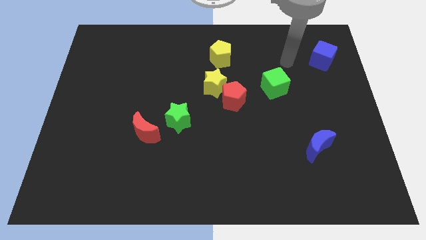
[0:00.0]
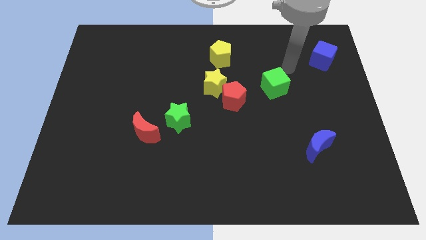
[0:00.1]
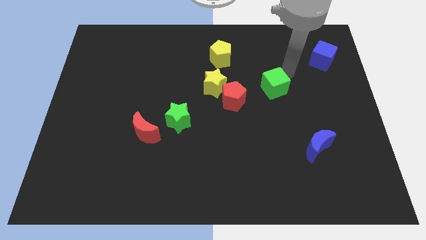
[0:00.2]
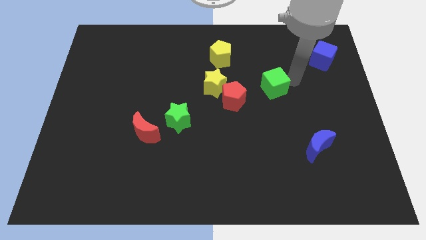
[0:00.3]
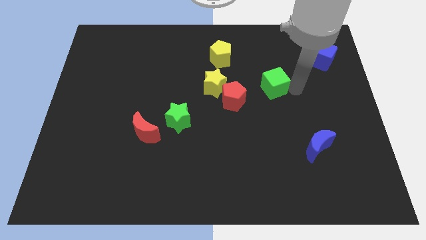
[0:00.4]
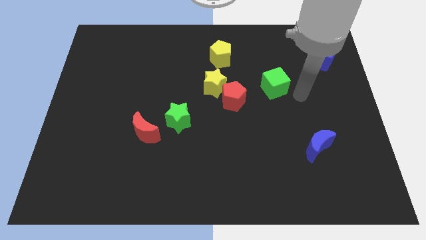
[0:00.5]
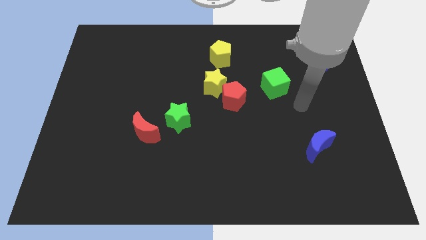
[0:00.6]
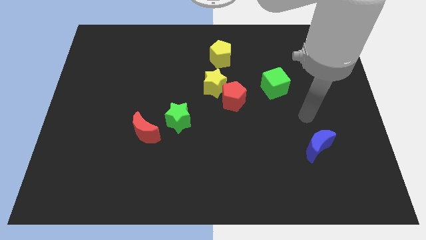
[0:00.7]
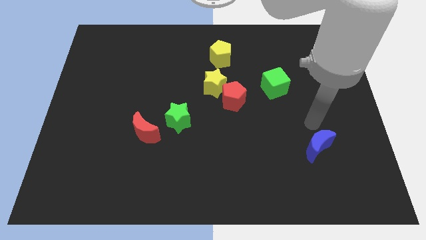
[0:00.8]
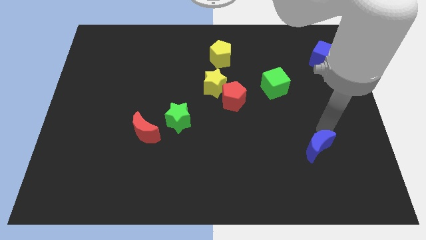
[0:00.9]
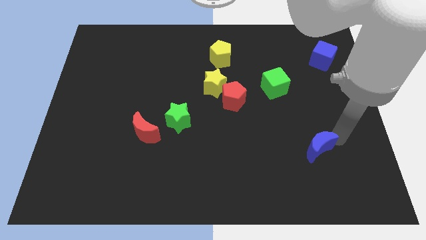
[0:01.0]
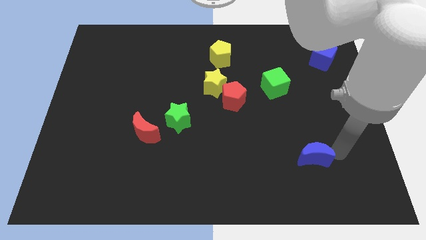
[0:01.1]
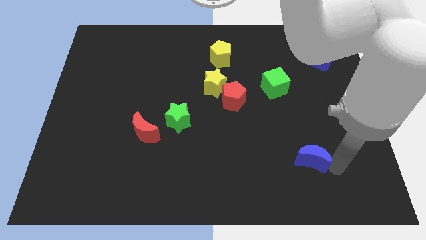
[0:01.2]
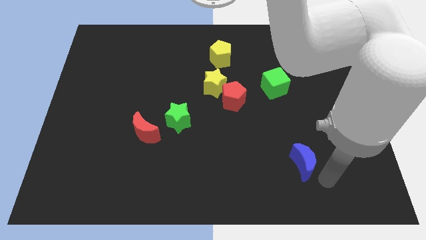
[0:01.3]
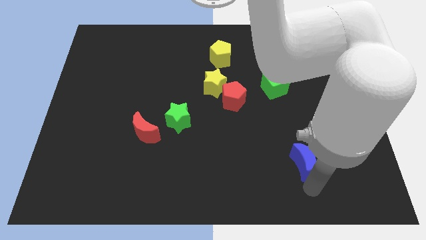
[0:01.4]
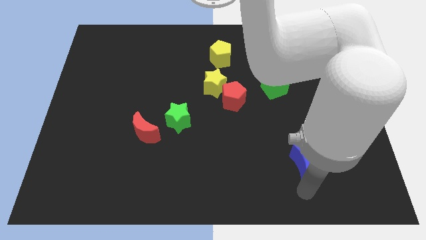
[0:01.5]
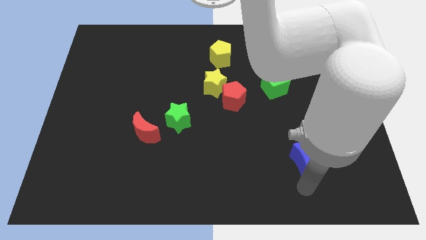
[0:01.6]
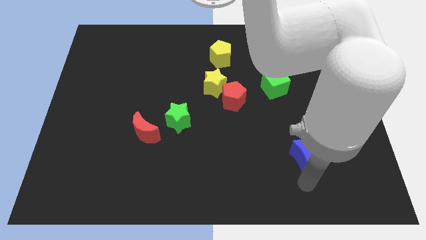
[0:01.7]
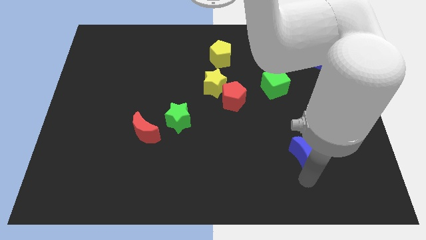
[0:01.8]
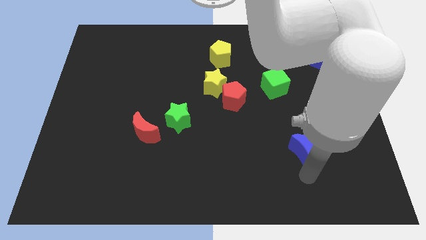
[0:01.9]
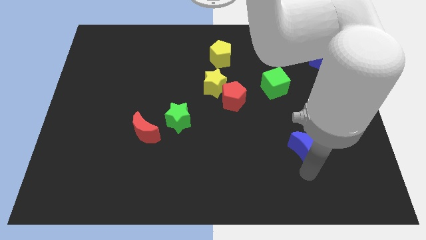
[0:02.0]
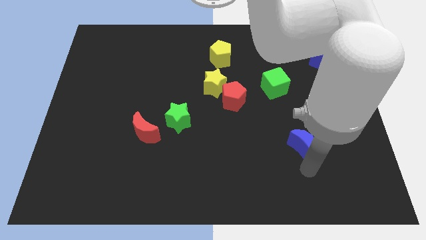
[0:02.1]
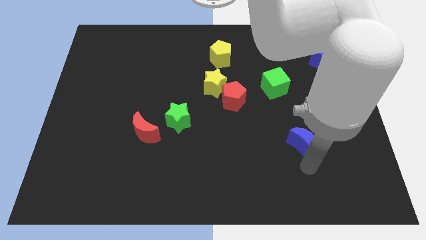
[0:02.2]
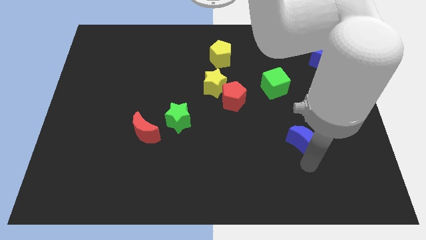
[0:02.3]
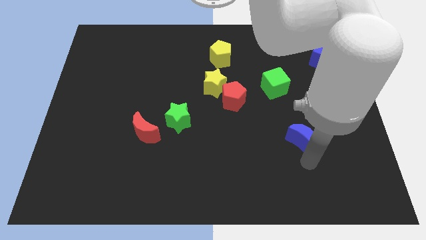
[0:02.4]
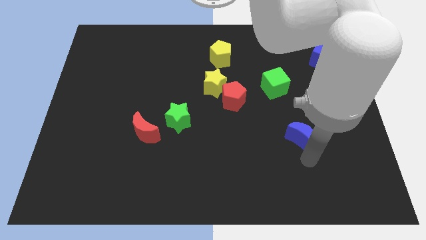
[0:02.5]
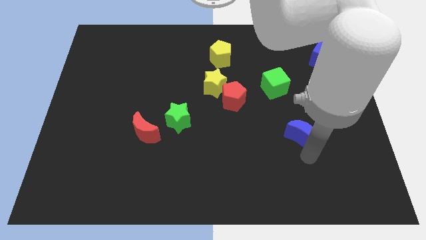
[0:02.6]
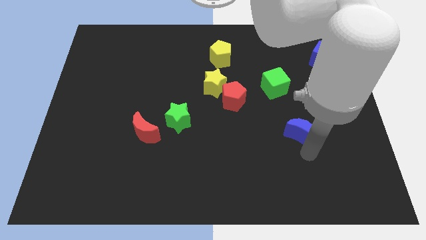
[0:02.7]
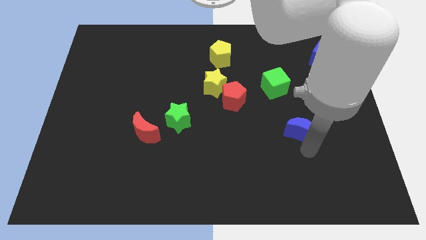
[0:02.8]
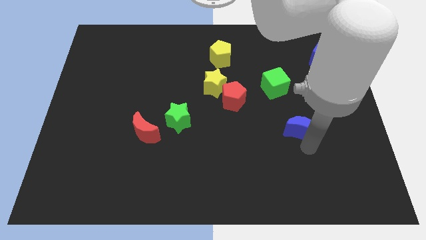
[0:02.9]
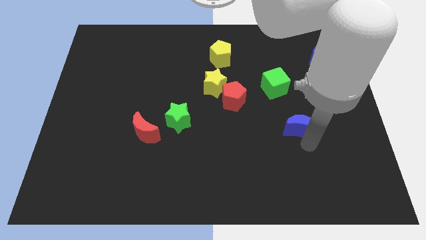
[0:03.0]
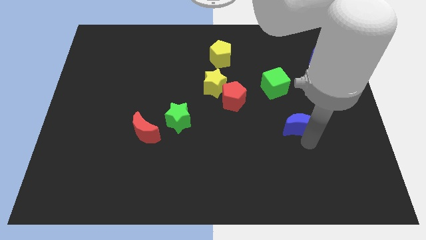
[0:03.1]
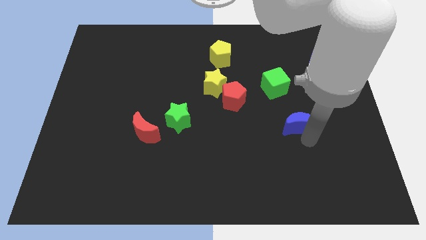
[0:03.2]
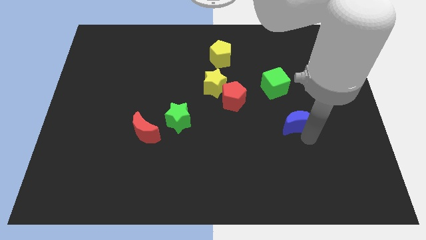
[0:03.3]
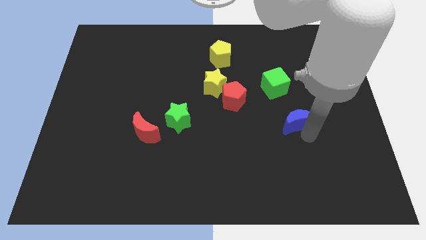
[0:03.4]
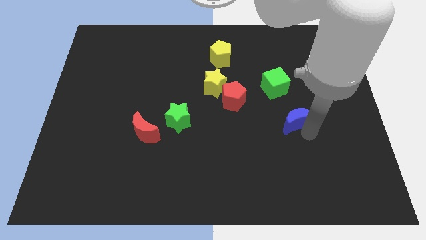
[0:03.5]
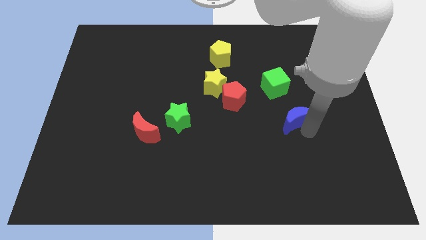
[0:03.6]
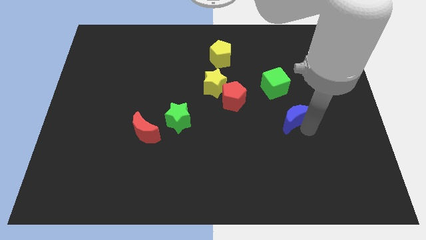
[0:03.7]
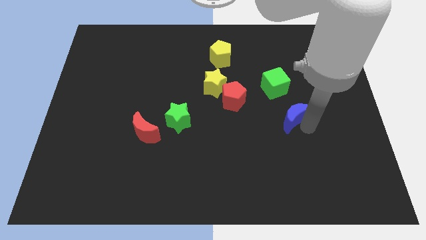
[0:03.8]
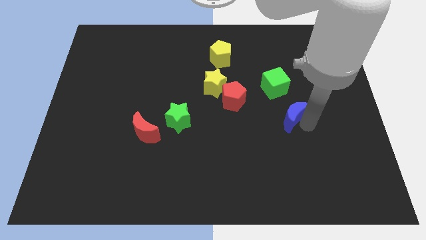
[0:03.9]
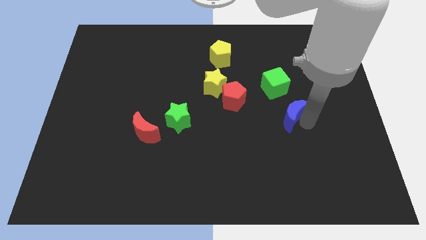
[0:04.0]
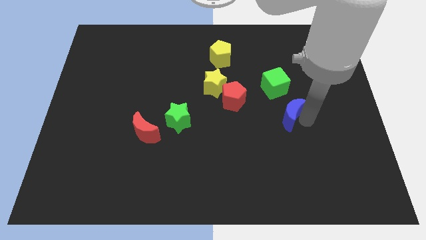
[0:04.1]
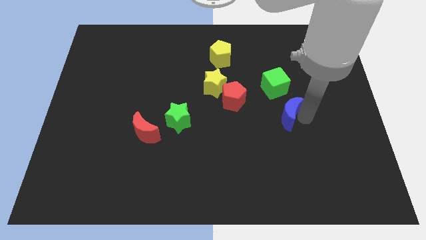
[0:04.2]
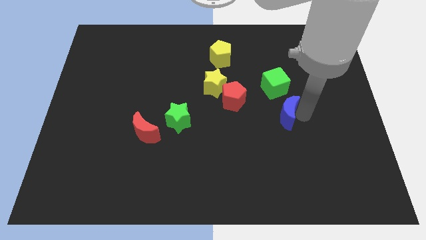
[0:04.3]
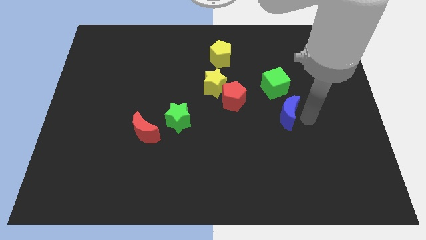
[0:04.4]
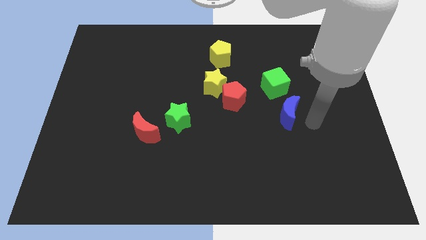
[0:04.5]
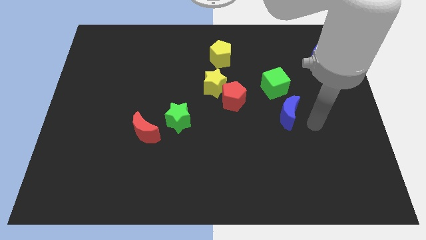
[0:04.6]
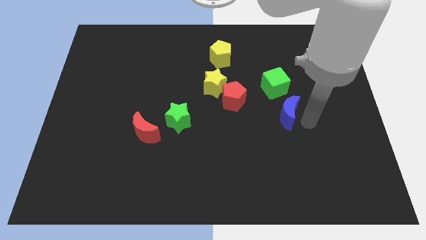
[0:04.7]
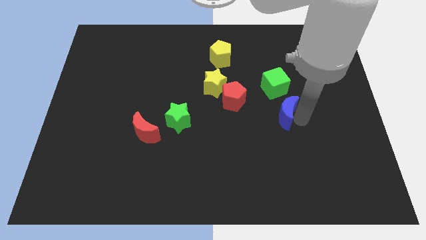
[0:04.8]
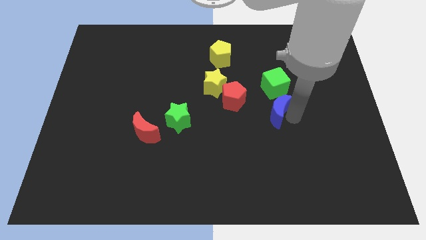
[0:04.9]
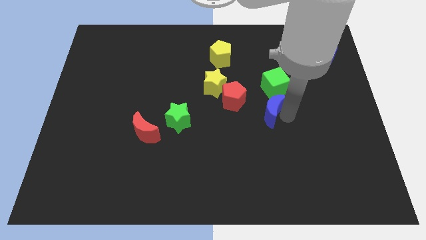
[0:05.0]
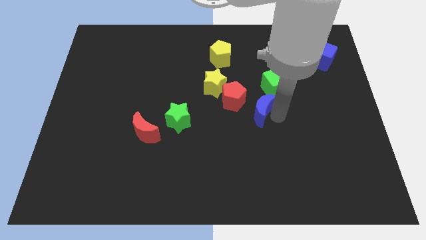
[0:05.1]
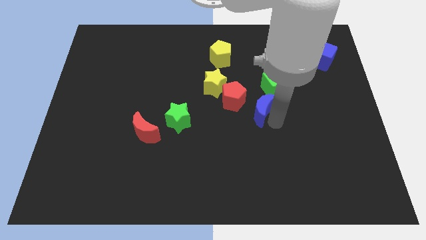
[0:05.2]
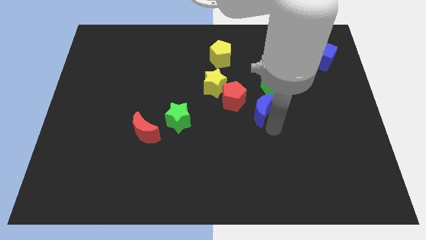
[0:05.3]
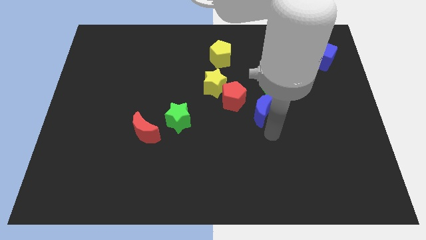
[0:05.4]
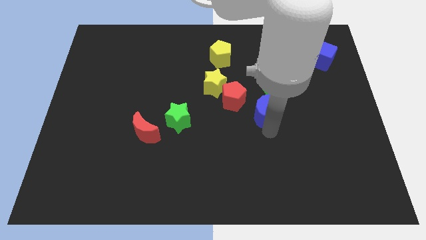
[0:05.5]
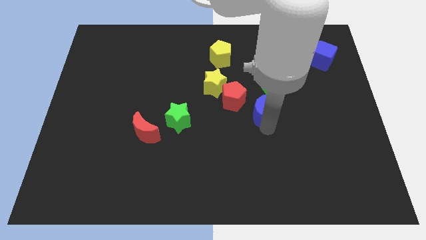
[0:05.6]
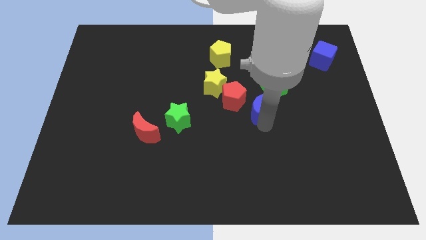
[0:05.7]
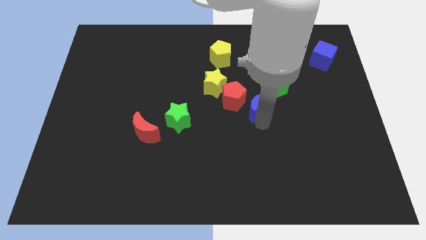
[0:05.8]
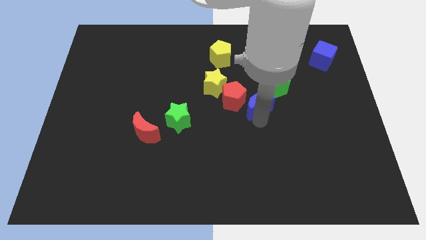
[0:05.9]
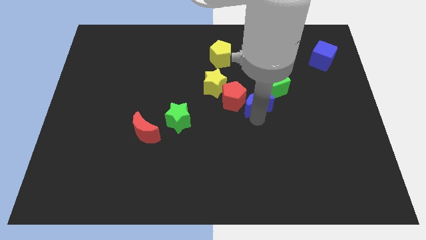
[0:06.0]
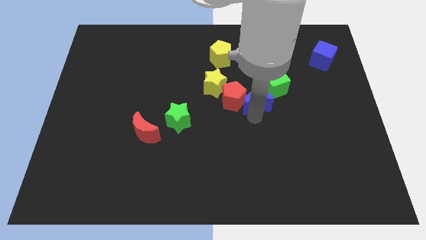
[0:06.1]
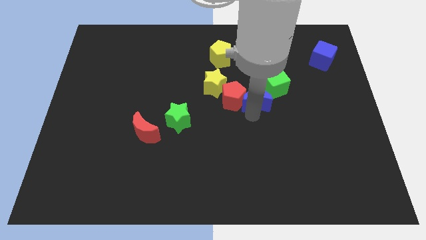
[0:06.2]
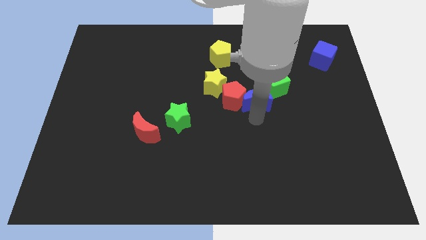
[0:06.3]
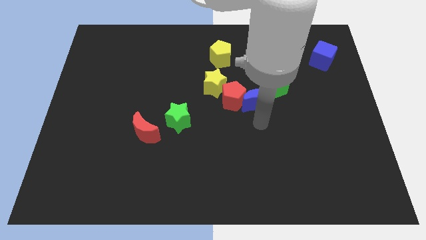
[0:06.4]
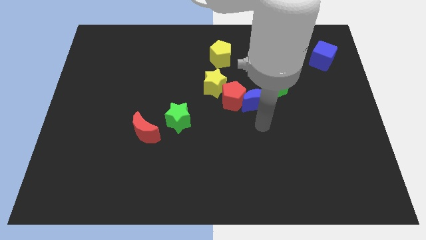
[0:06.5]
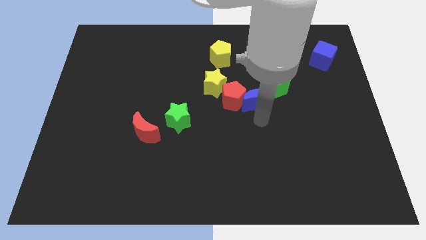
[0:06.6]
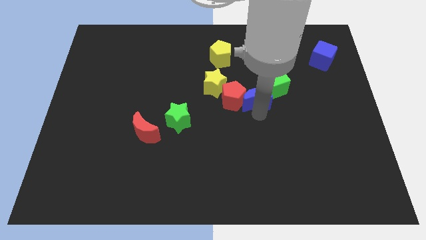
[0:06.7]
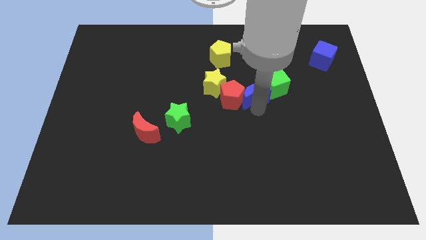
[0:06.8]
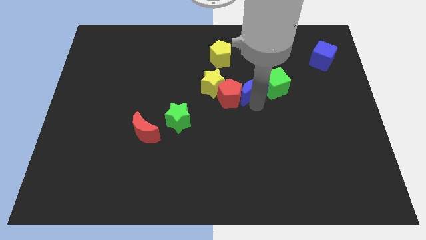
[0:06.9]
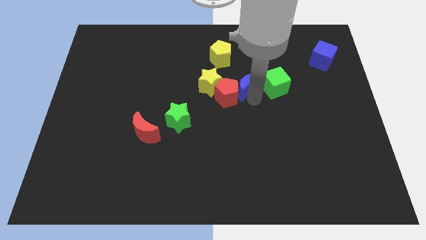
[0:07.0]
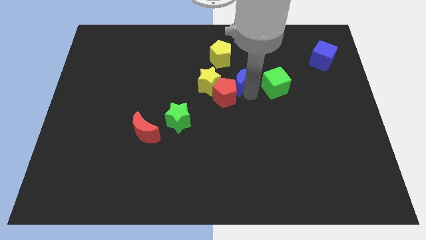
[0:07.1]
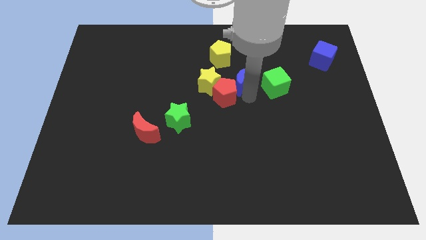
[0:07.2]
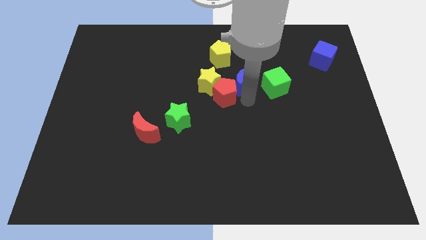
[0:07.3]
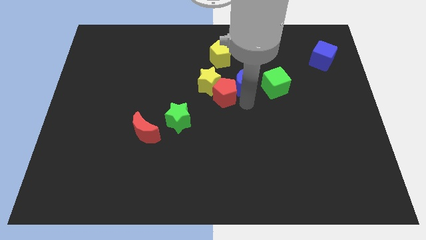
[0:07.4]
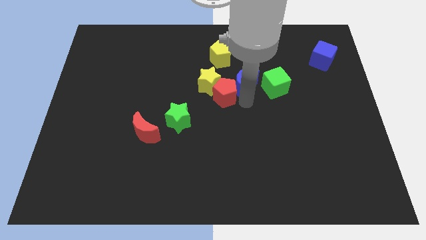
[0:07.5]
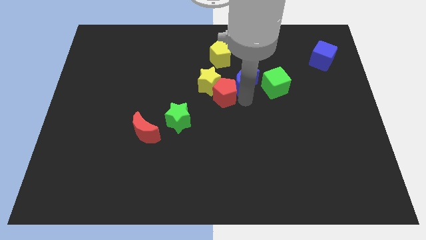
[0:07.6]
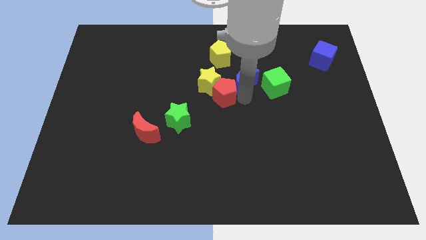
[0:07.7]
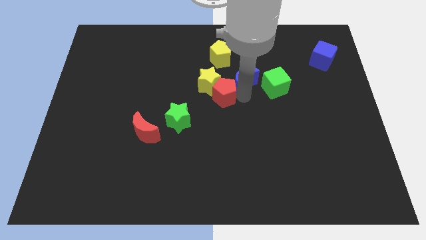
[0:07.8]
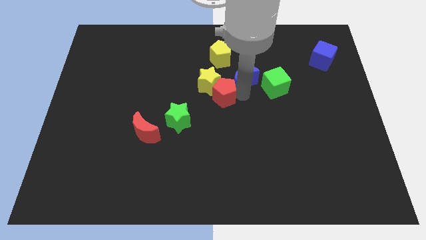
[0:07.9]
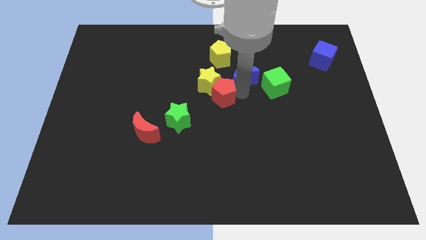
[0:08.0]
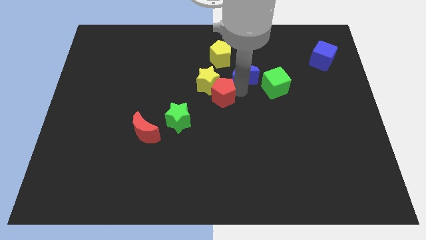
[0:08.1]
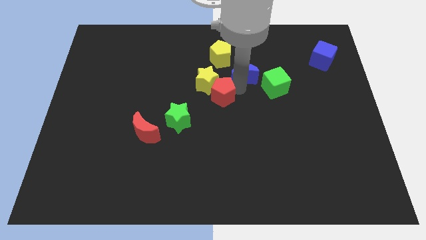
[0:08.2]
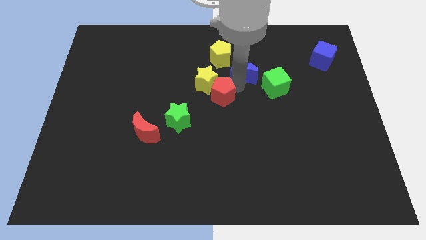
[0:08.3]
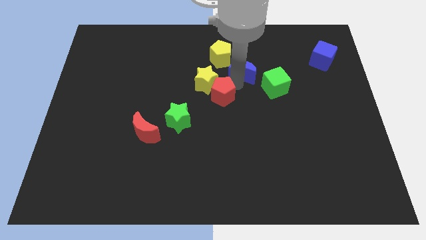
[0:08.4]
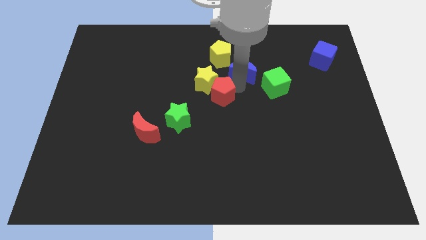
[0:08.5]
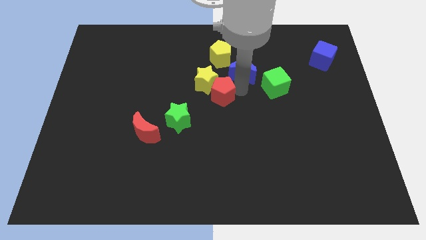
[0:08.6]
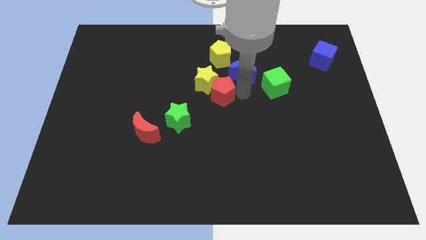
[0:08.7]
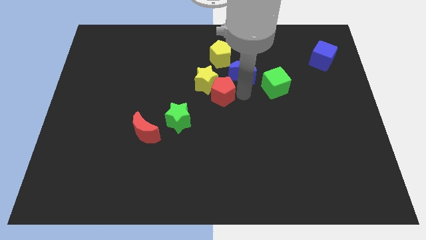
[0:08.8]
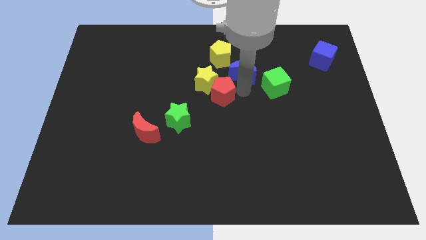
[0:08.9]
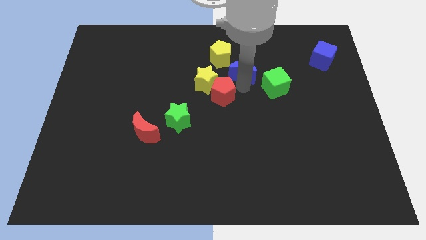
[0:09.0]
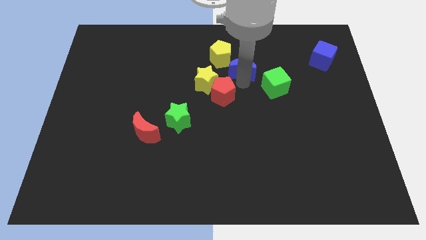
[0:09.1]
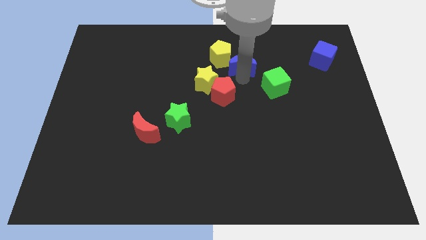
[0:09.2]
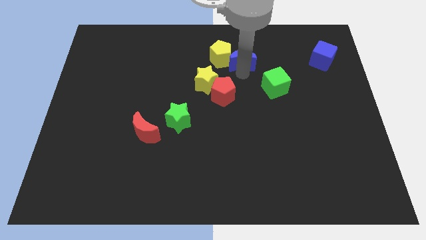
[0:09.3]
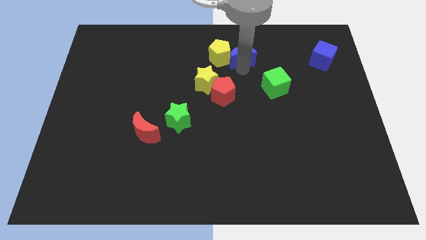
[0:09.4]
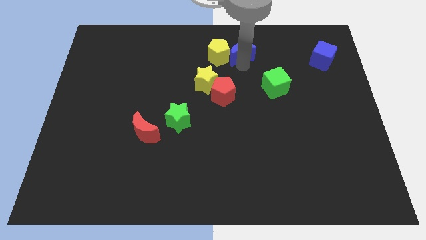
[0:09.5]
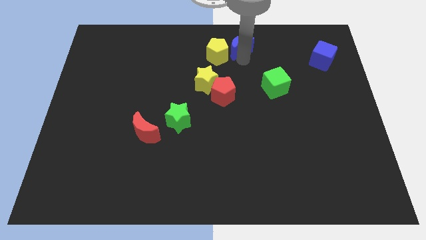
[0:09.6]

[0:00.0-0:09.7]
put the blue moon to the top side
